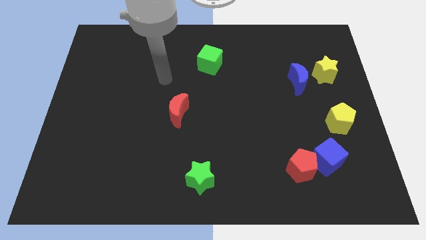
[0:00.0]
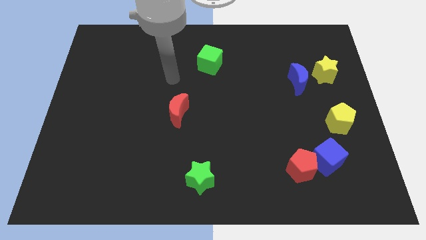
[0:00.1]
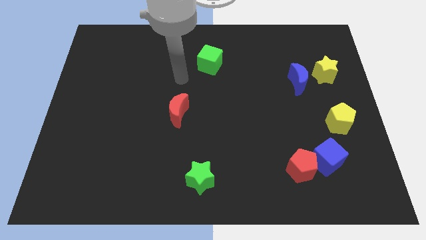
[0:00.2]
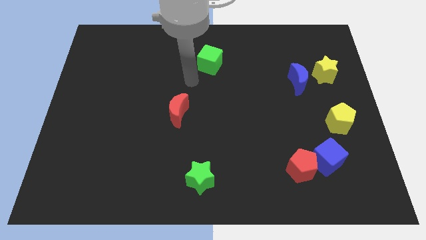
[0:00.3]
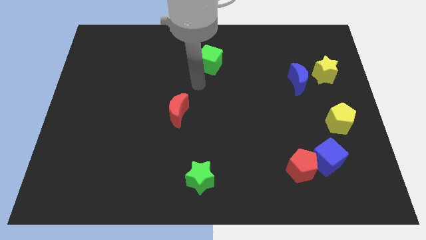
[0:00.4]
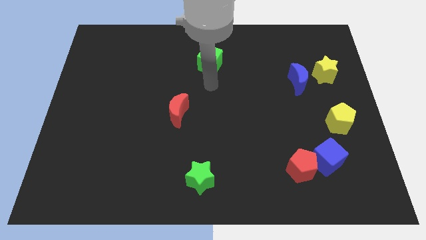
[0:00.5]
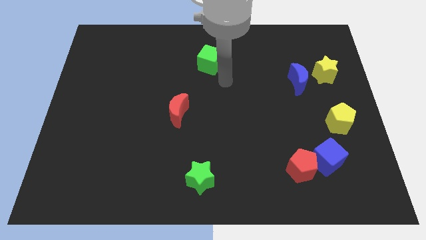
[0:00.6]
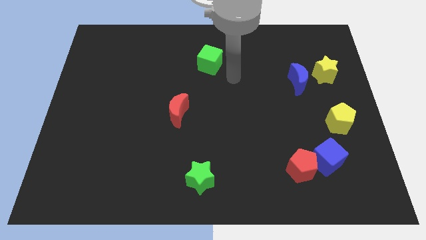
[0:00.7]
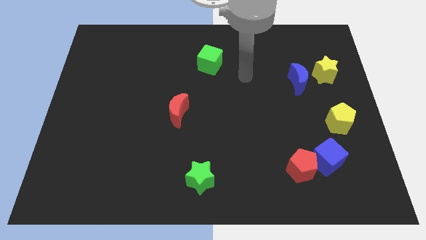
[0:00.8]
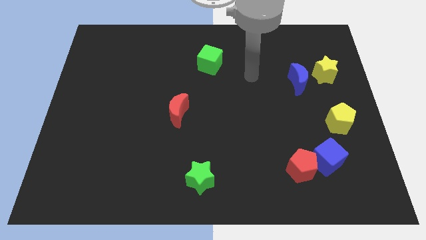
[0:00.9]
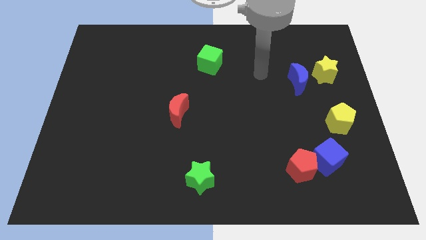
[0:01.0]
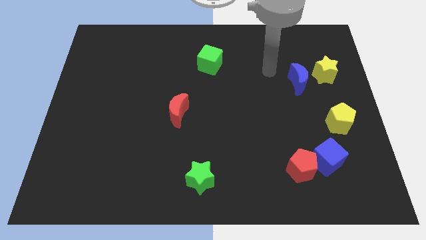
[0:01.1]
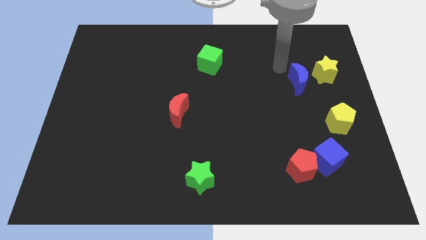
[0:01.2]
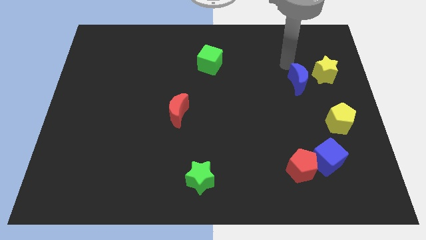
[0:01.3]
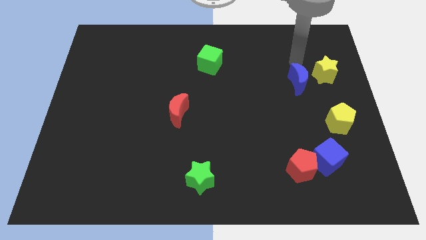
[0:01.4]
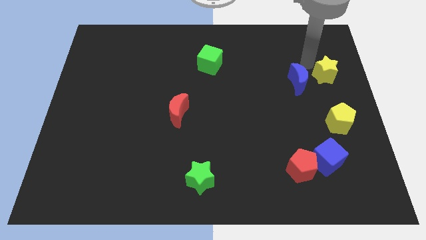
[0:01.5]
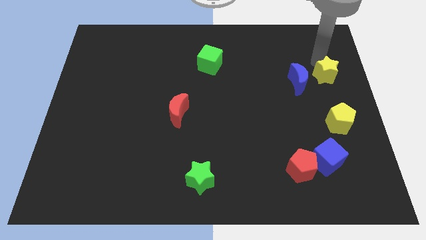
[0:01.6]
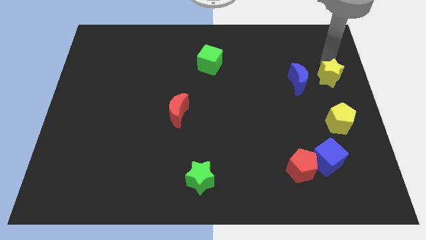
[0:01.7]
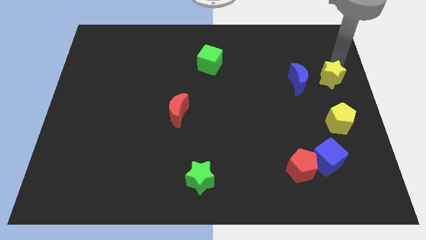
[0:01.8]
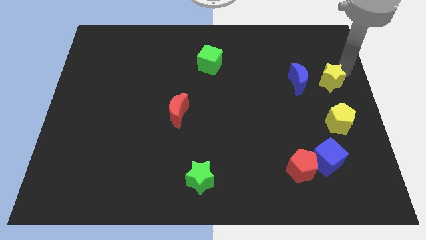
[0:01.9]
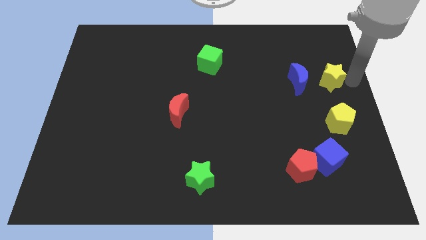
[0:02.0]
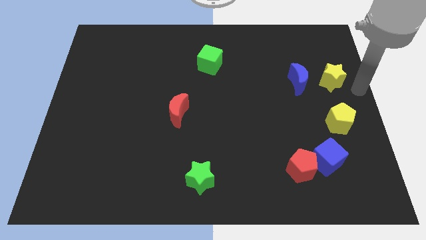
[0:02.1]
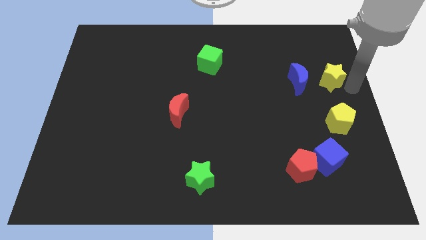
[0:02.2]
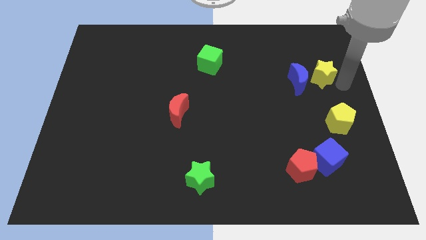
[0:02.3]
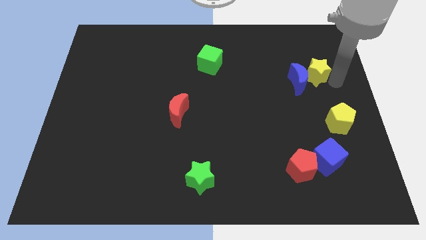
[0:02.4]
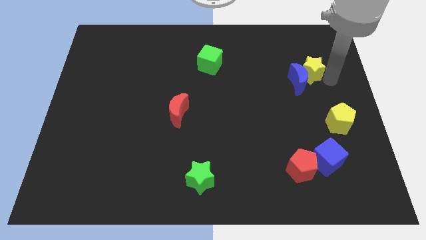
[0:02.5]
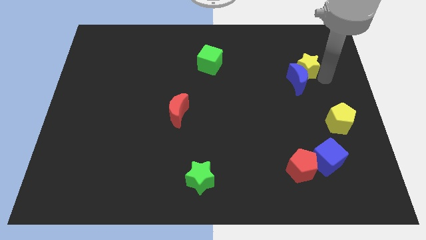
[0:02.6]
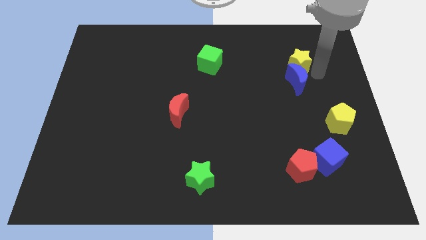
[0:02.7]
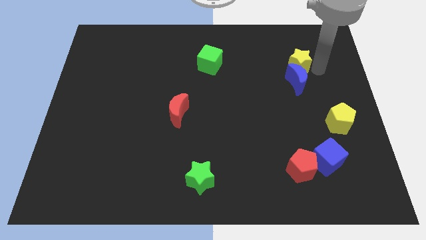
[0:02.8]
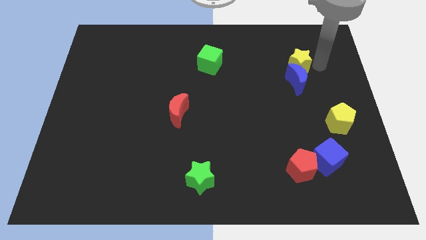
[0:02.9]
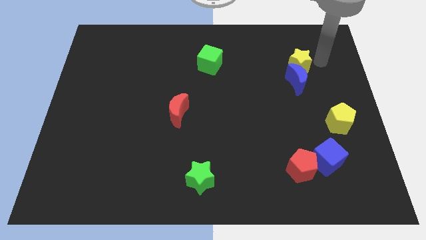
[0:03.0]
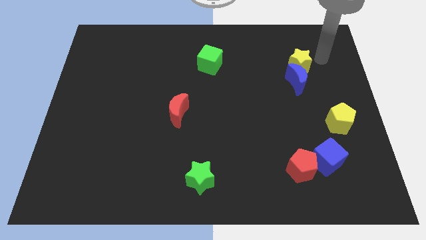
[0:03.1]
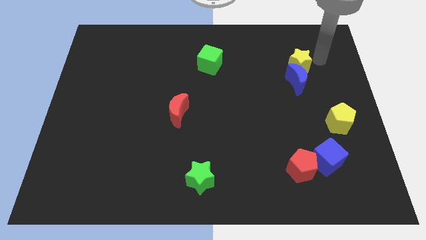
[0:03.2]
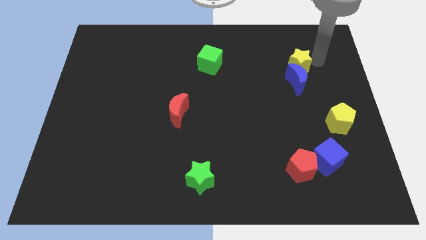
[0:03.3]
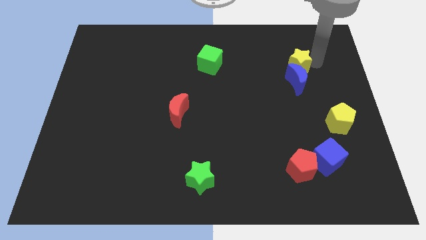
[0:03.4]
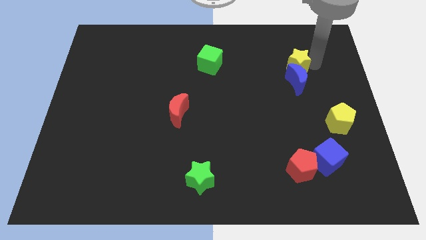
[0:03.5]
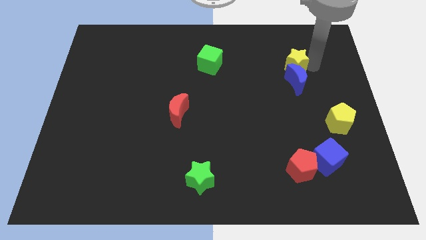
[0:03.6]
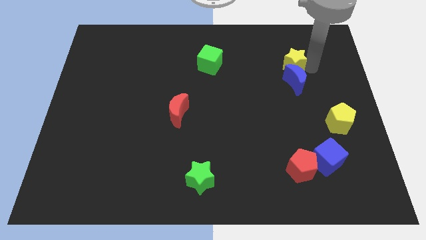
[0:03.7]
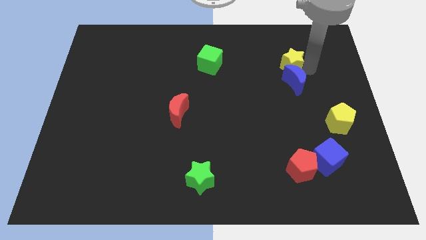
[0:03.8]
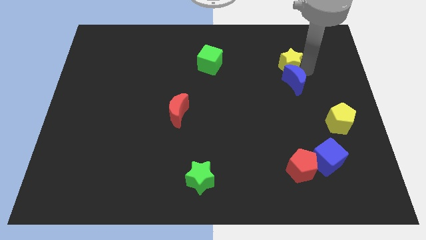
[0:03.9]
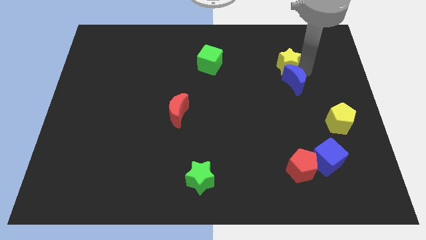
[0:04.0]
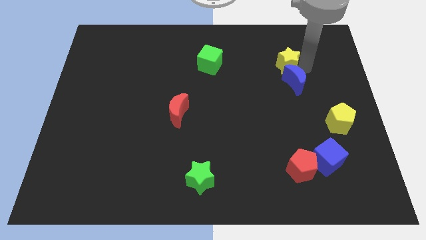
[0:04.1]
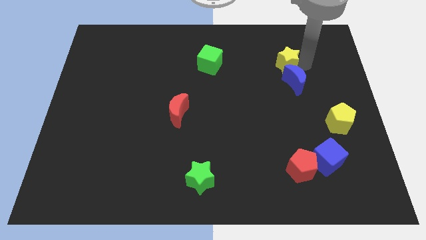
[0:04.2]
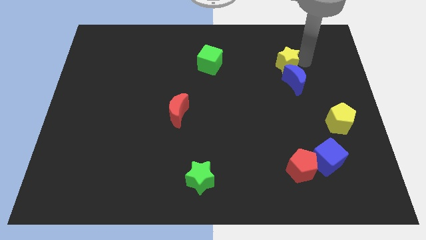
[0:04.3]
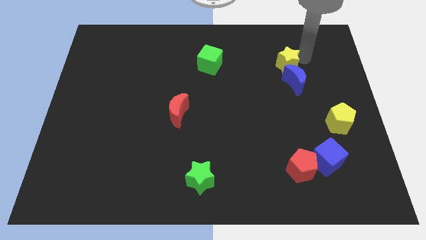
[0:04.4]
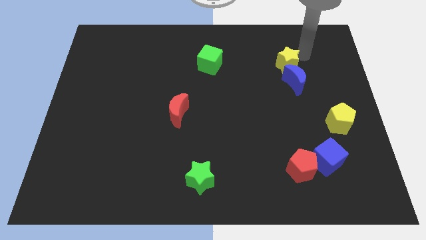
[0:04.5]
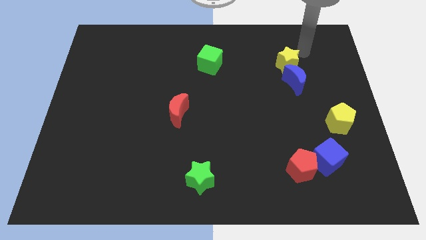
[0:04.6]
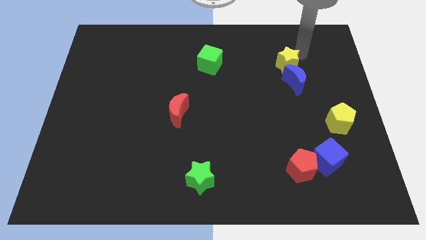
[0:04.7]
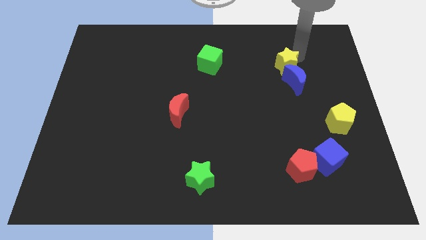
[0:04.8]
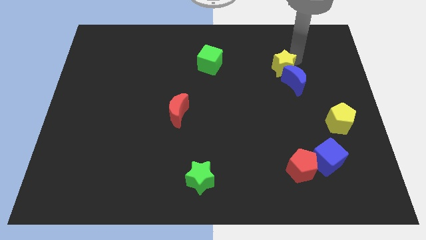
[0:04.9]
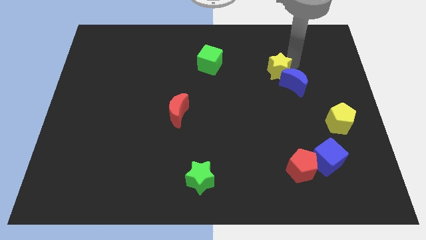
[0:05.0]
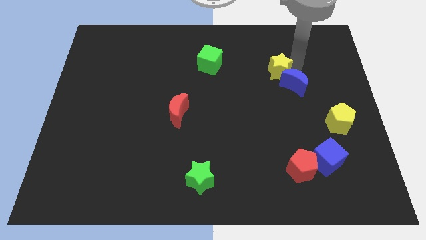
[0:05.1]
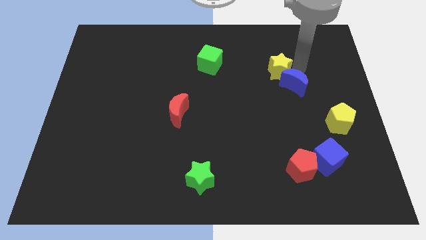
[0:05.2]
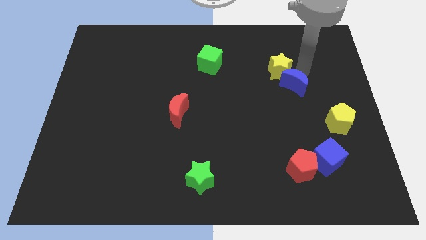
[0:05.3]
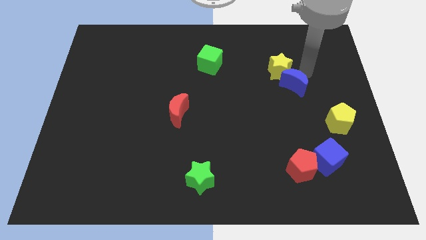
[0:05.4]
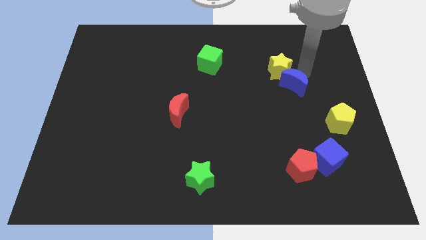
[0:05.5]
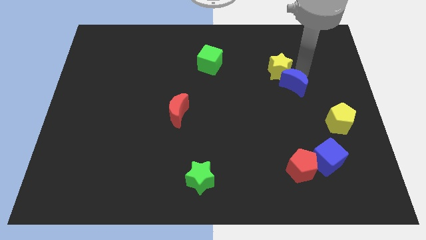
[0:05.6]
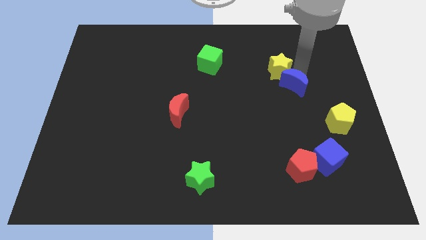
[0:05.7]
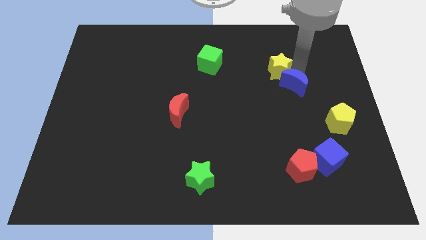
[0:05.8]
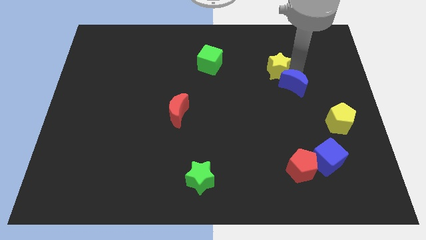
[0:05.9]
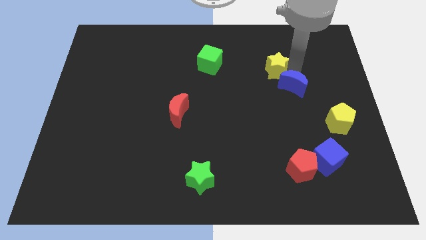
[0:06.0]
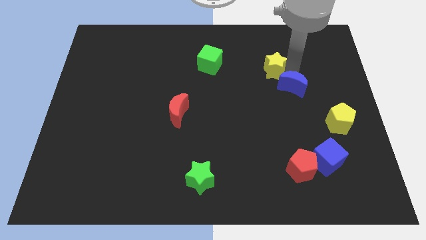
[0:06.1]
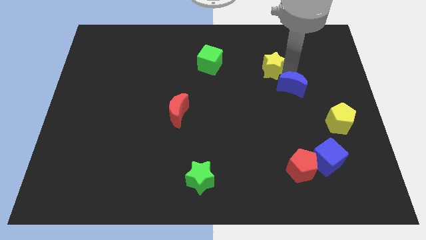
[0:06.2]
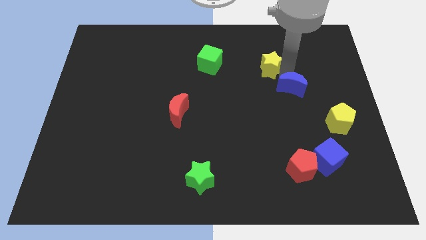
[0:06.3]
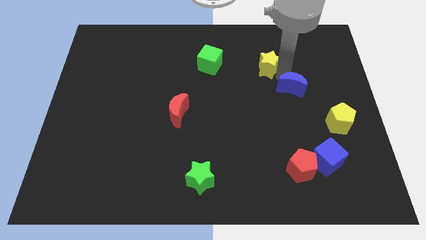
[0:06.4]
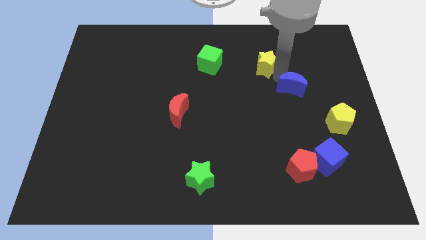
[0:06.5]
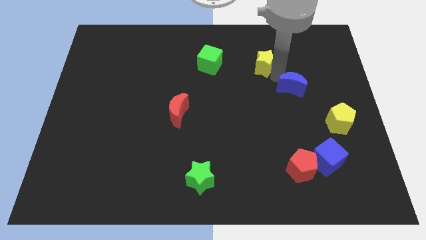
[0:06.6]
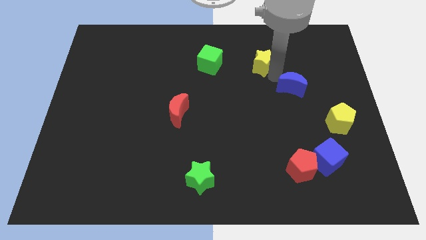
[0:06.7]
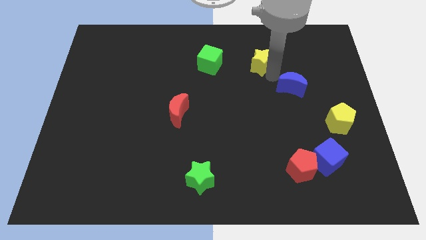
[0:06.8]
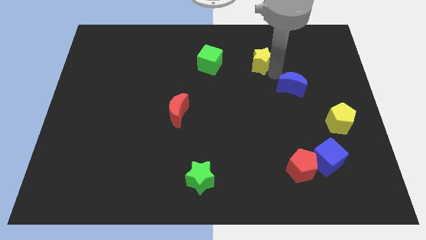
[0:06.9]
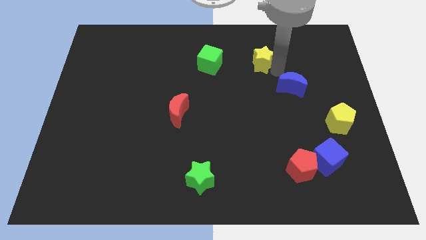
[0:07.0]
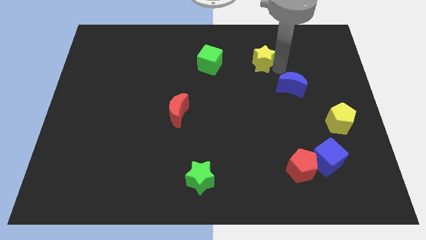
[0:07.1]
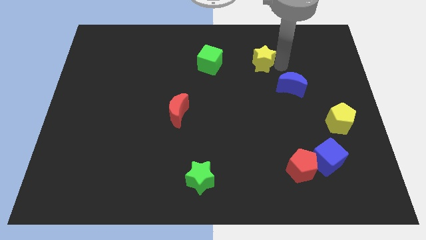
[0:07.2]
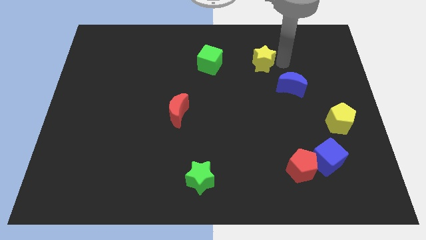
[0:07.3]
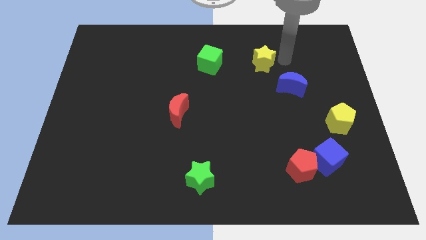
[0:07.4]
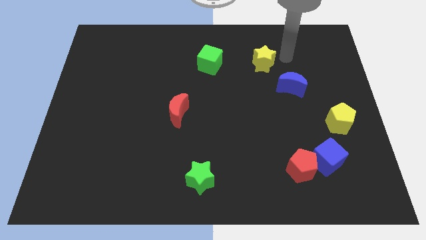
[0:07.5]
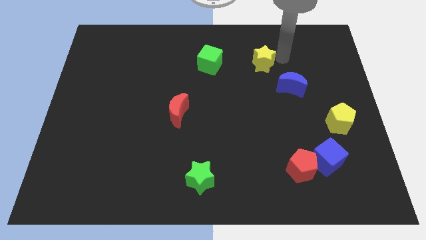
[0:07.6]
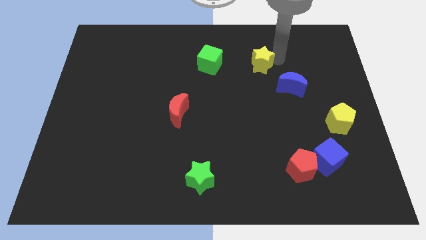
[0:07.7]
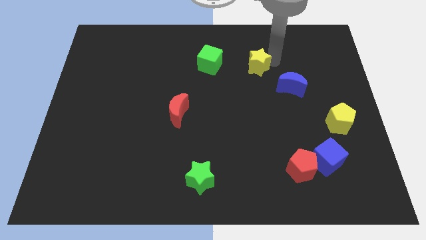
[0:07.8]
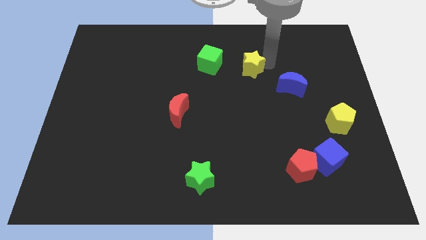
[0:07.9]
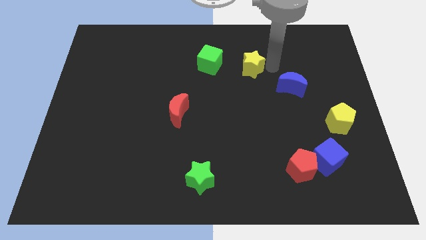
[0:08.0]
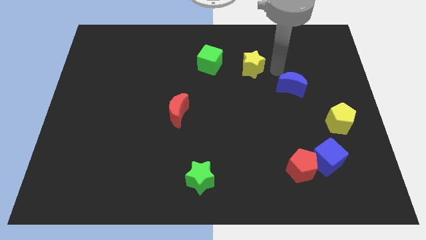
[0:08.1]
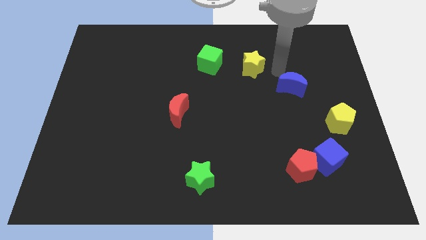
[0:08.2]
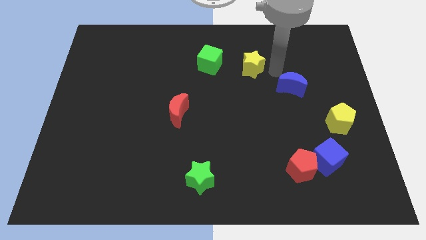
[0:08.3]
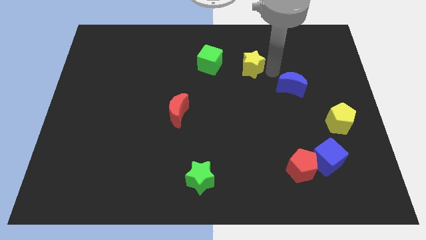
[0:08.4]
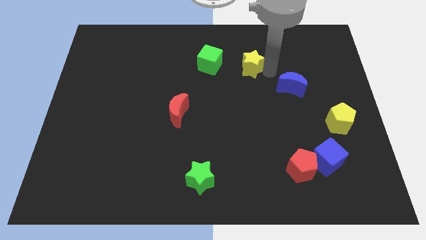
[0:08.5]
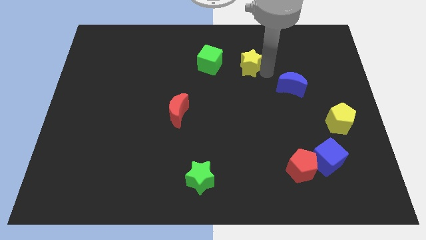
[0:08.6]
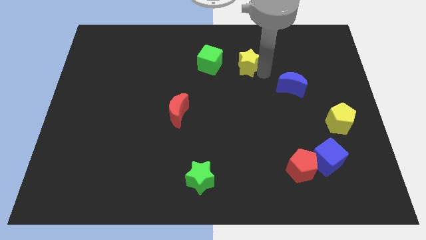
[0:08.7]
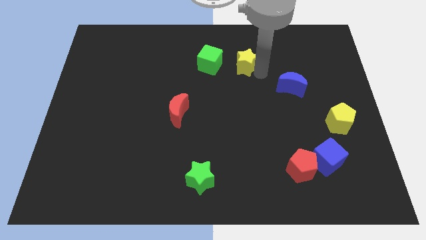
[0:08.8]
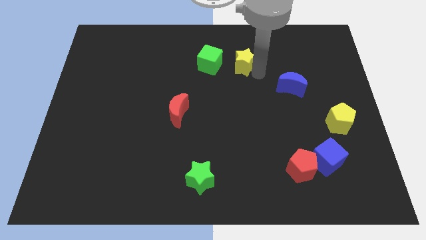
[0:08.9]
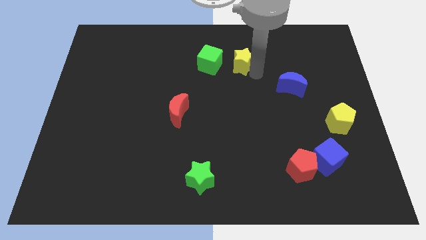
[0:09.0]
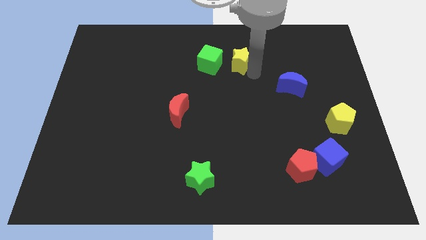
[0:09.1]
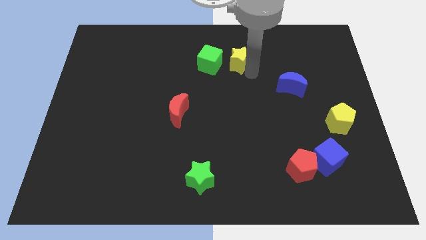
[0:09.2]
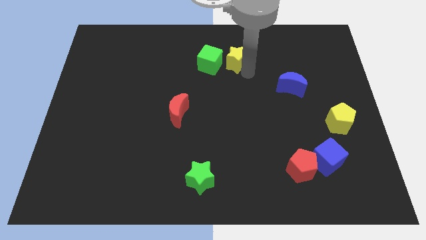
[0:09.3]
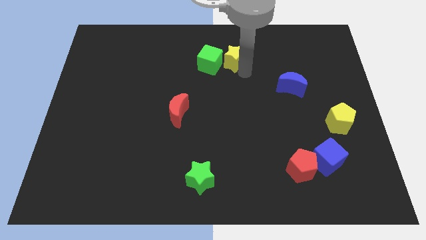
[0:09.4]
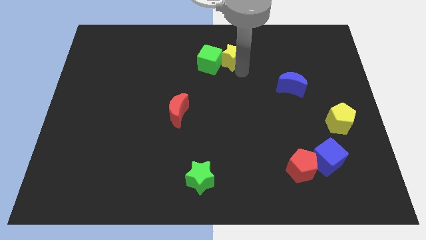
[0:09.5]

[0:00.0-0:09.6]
slide the yellow star towards the green cube
